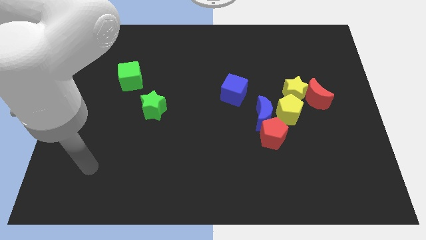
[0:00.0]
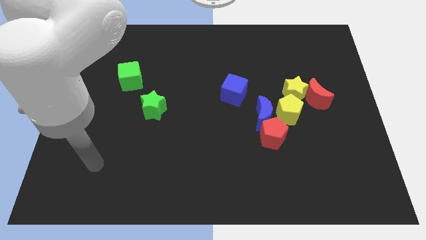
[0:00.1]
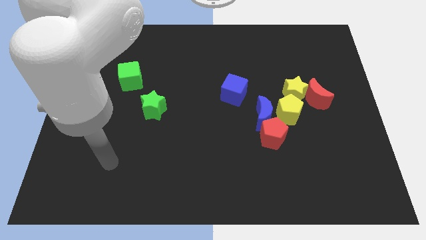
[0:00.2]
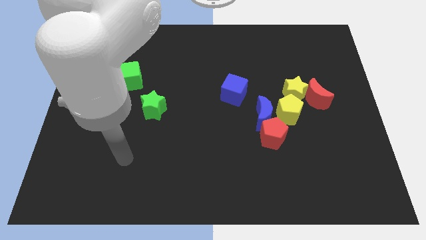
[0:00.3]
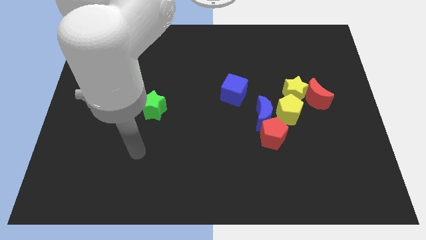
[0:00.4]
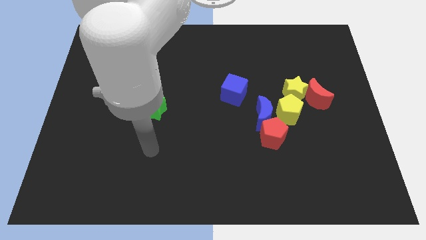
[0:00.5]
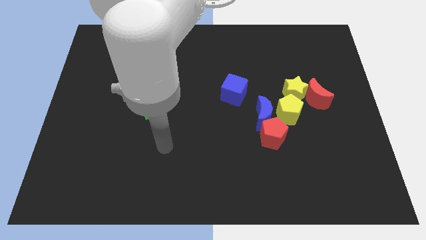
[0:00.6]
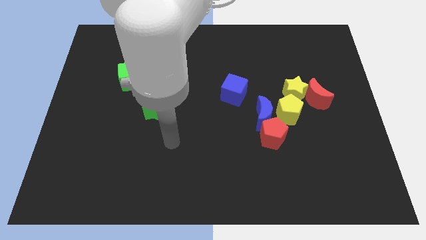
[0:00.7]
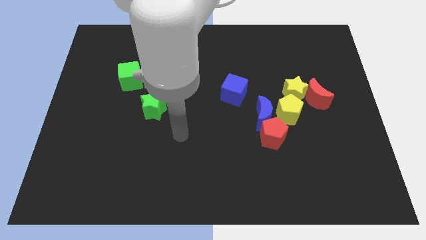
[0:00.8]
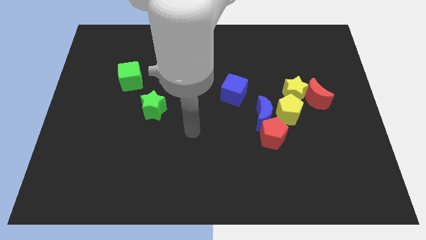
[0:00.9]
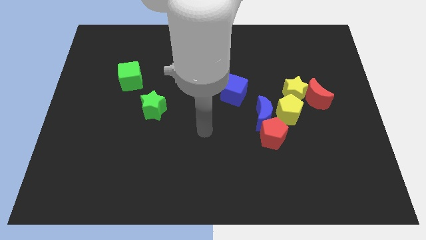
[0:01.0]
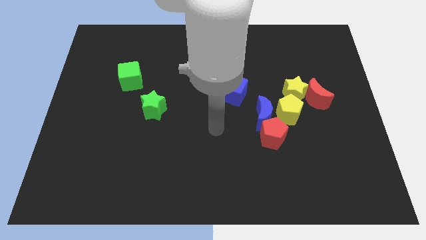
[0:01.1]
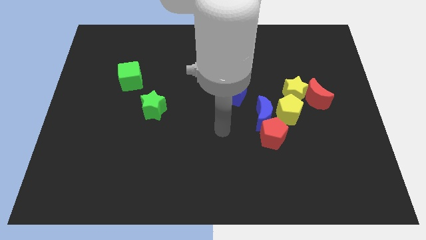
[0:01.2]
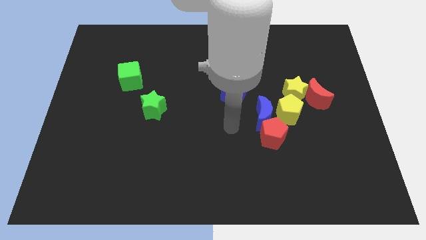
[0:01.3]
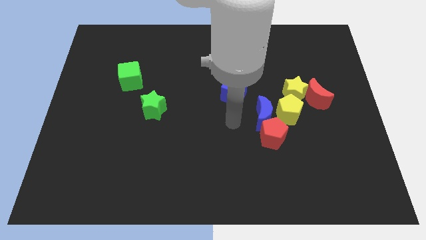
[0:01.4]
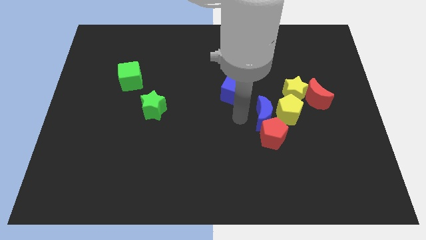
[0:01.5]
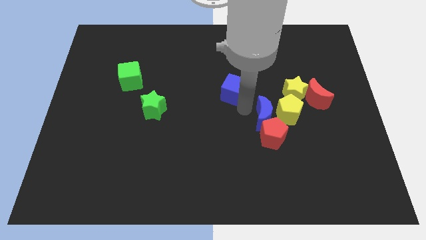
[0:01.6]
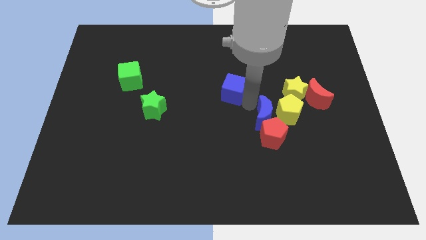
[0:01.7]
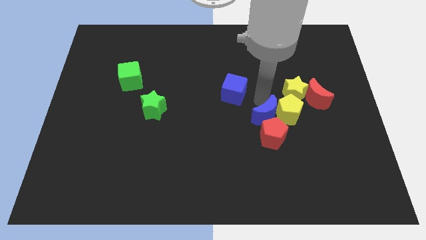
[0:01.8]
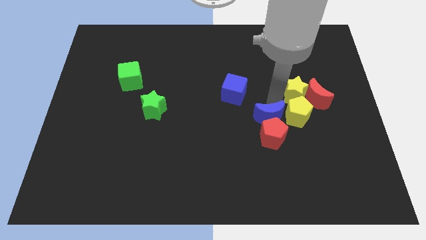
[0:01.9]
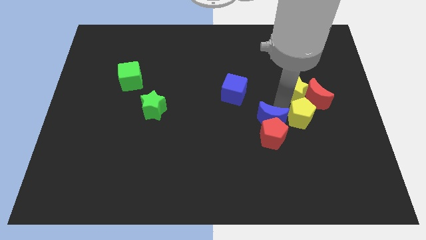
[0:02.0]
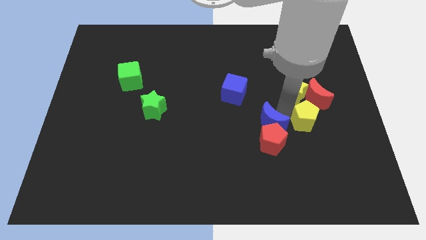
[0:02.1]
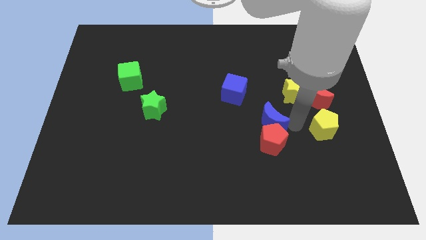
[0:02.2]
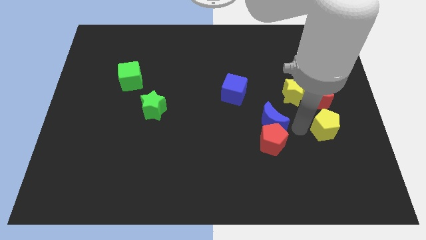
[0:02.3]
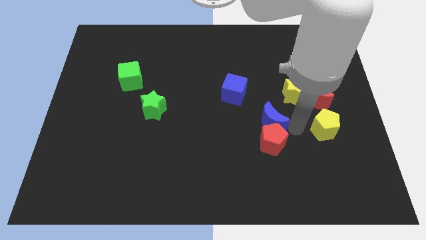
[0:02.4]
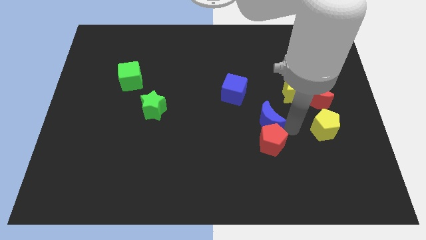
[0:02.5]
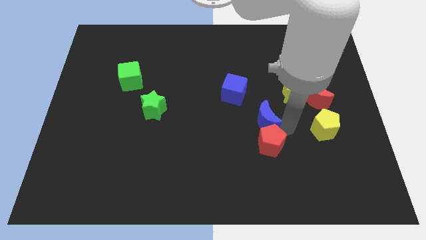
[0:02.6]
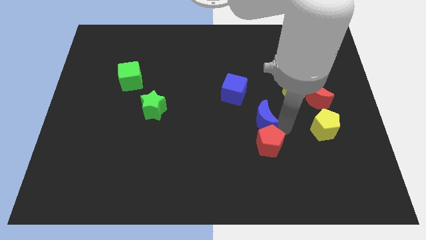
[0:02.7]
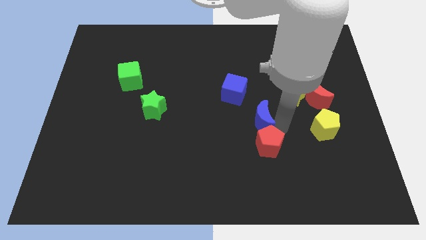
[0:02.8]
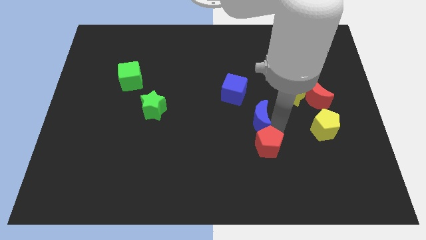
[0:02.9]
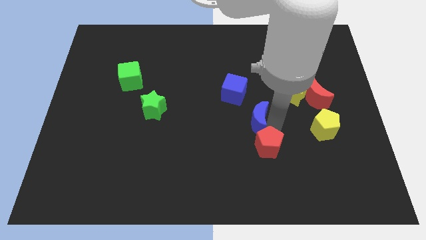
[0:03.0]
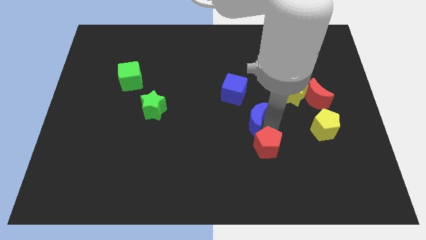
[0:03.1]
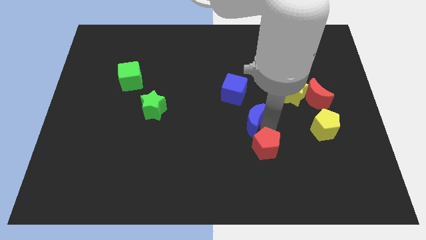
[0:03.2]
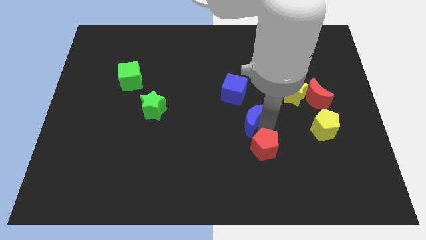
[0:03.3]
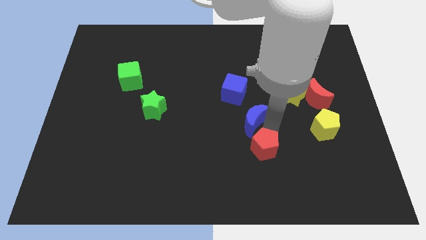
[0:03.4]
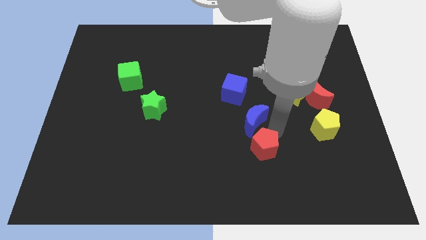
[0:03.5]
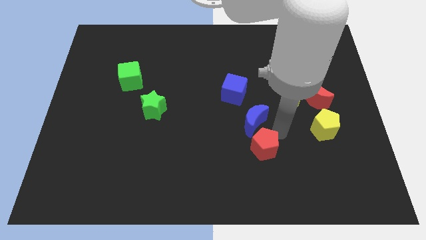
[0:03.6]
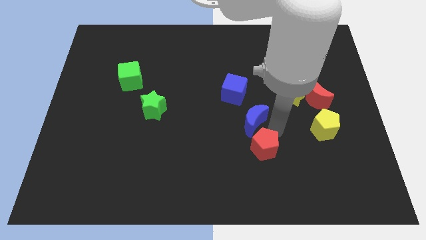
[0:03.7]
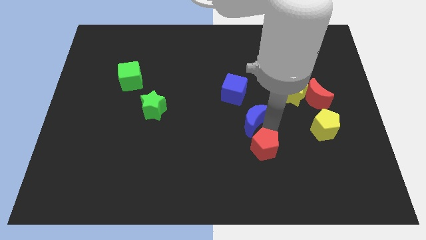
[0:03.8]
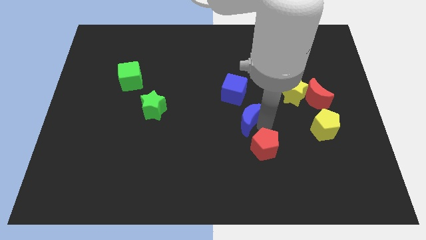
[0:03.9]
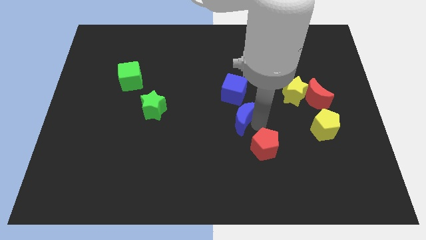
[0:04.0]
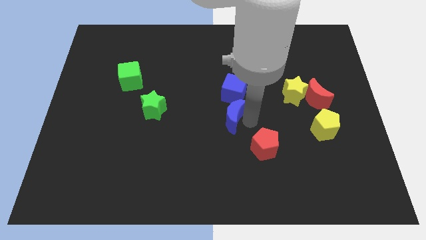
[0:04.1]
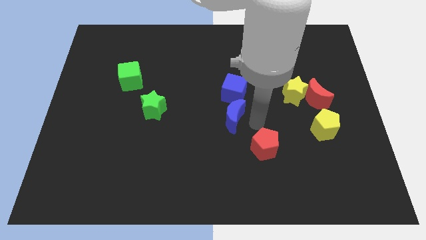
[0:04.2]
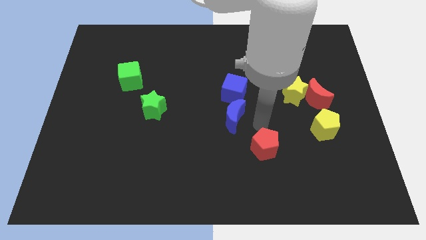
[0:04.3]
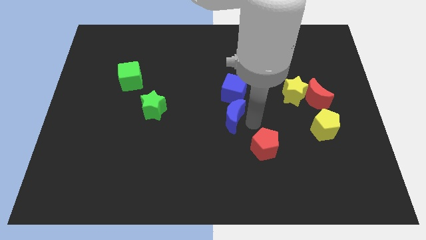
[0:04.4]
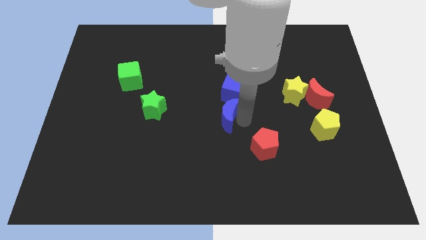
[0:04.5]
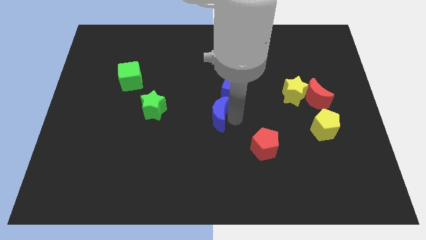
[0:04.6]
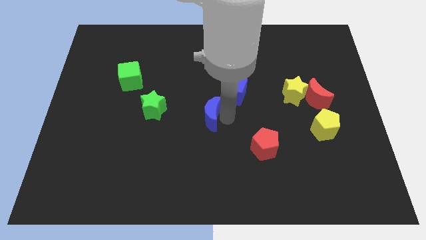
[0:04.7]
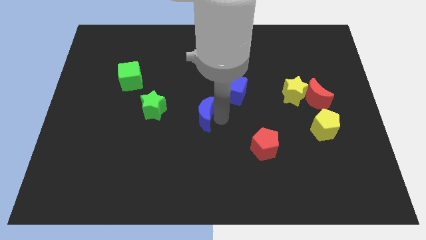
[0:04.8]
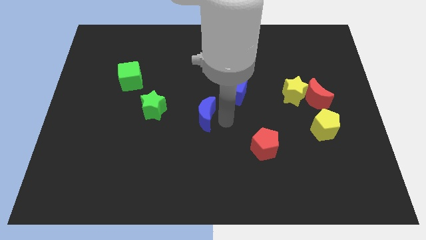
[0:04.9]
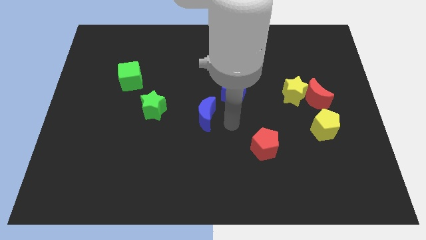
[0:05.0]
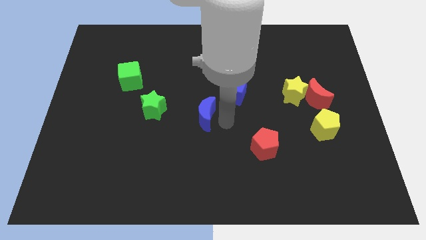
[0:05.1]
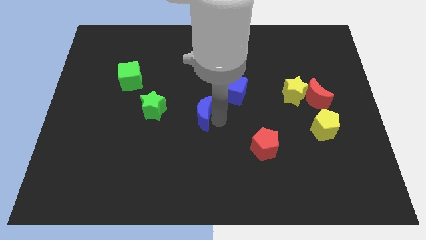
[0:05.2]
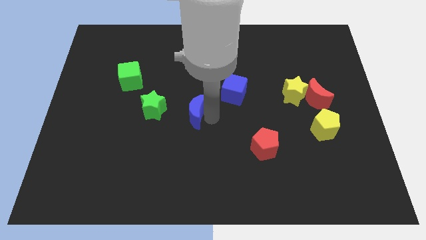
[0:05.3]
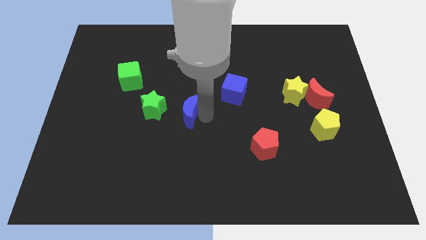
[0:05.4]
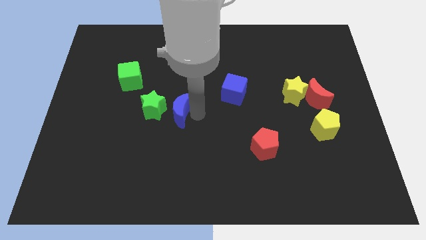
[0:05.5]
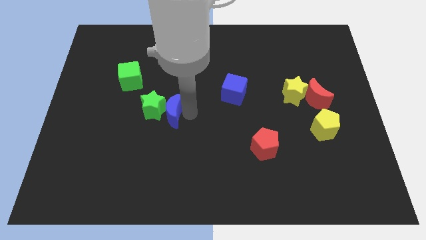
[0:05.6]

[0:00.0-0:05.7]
move the blue moon next to the green star

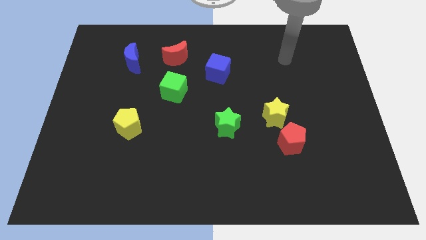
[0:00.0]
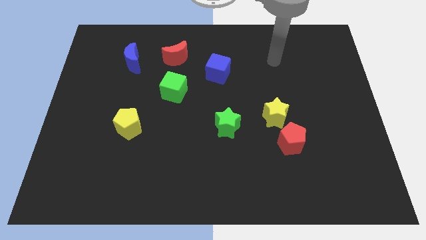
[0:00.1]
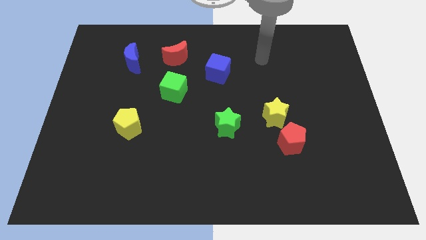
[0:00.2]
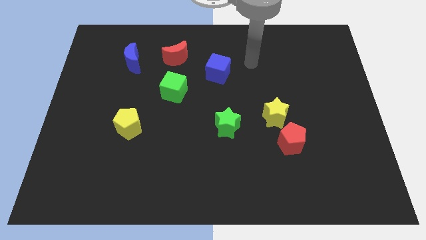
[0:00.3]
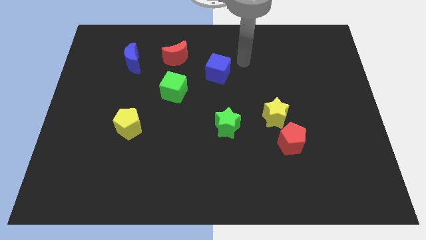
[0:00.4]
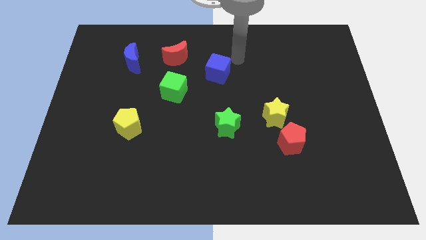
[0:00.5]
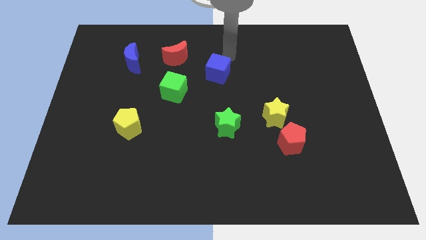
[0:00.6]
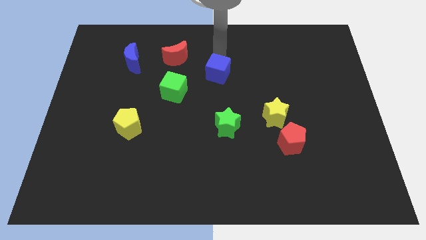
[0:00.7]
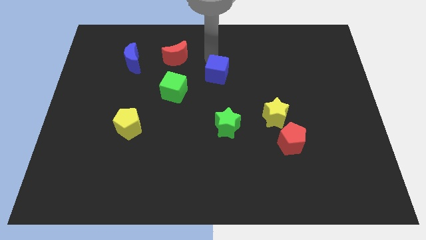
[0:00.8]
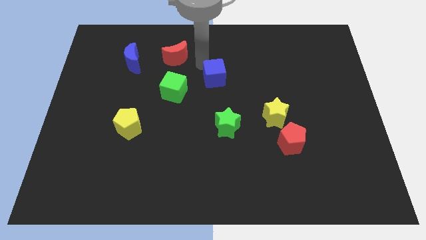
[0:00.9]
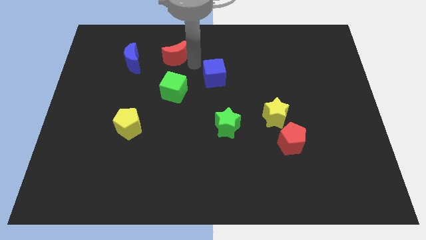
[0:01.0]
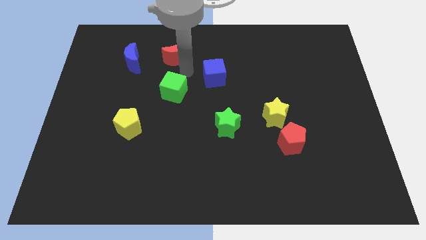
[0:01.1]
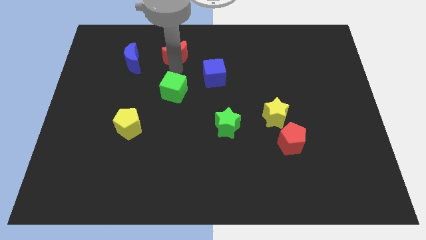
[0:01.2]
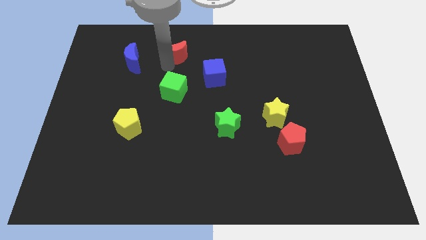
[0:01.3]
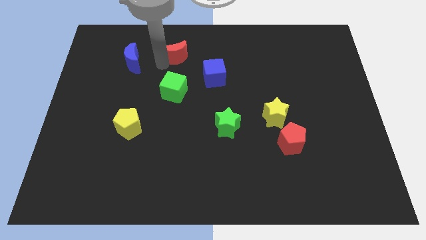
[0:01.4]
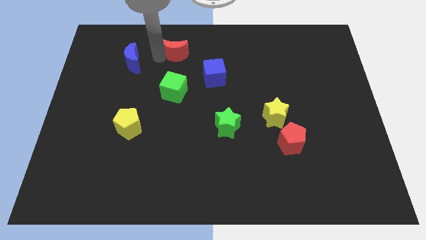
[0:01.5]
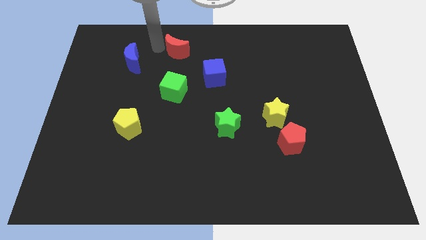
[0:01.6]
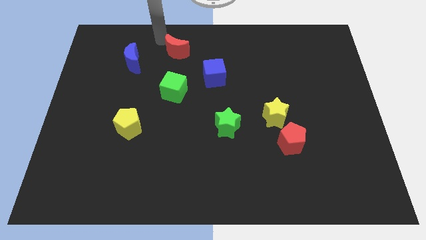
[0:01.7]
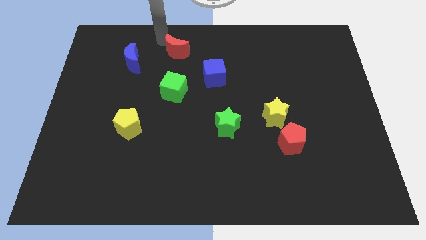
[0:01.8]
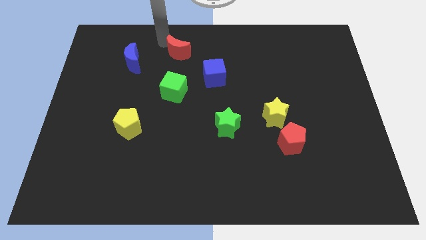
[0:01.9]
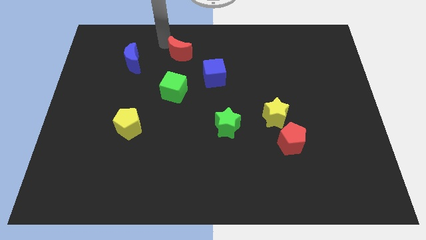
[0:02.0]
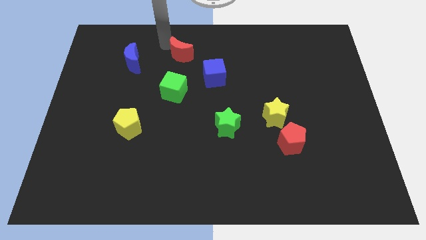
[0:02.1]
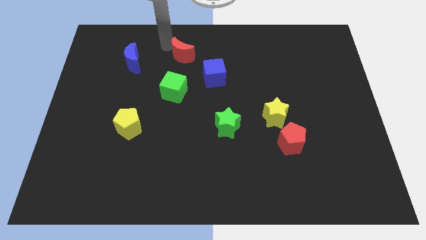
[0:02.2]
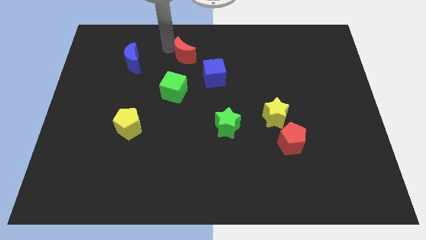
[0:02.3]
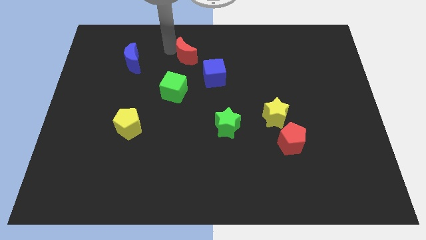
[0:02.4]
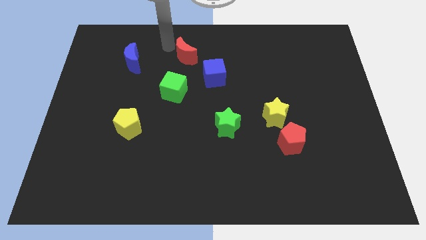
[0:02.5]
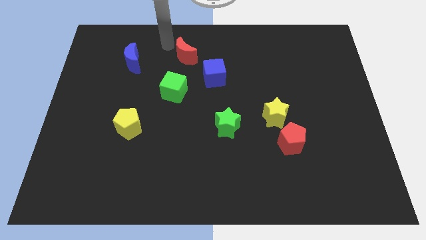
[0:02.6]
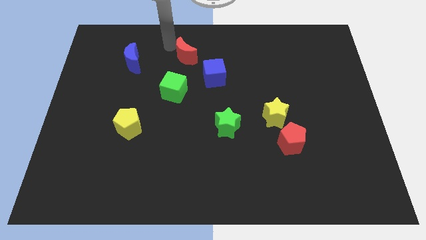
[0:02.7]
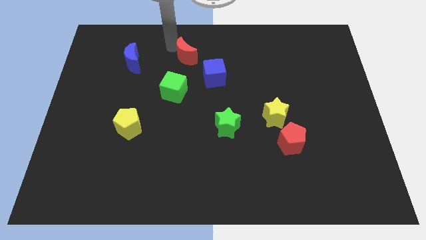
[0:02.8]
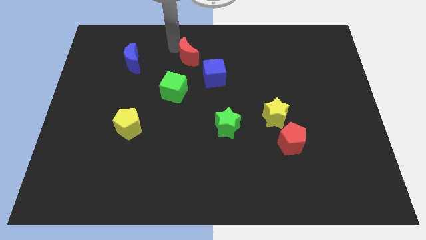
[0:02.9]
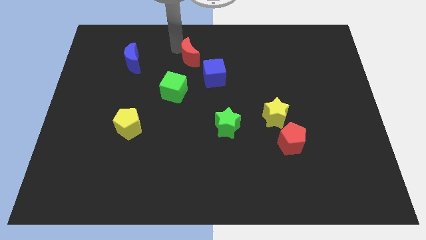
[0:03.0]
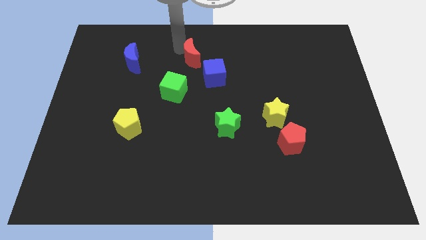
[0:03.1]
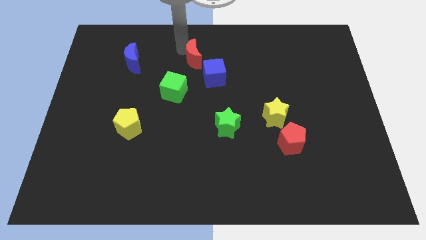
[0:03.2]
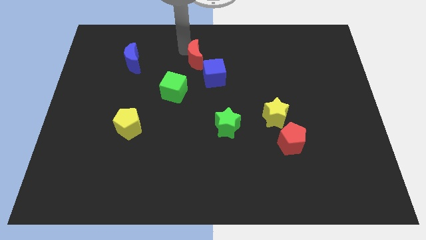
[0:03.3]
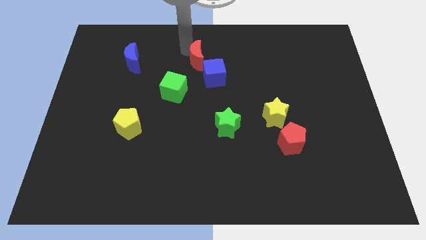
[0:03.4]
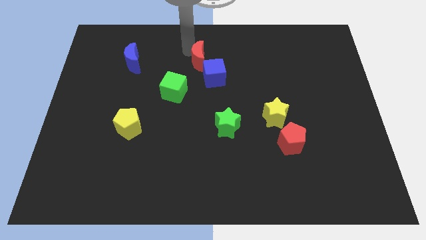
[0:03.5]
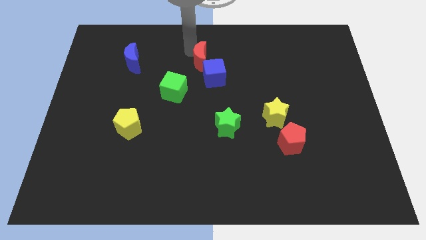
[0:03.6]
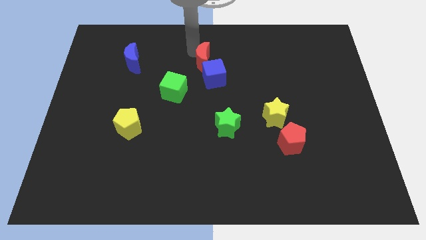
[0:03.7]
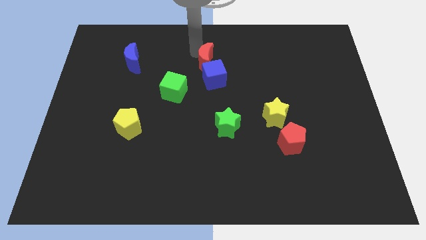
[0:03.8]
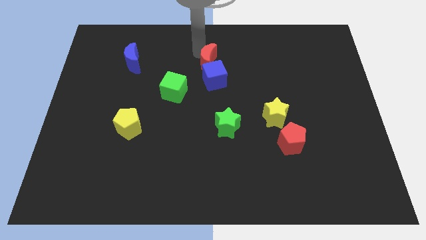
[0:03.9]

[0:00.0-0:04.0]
move the red moon towards the blue cube
